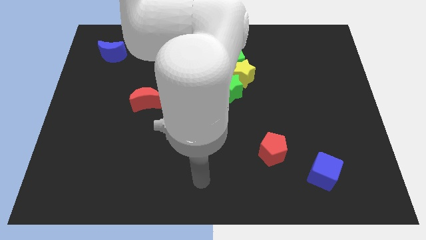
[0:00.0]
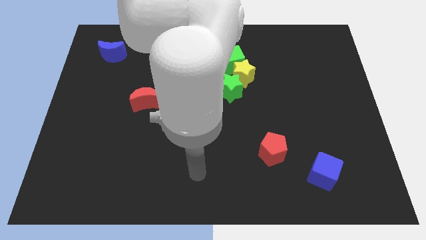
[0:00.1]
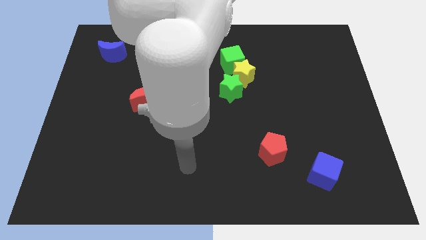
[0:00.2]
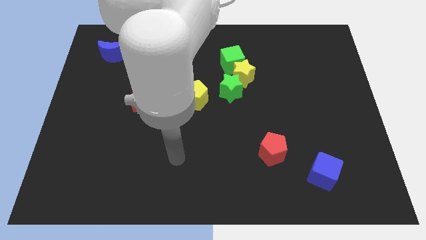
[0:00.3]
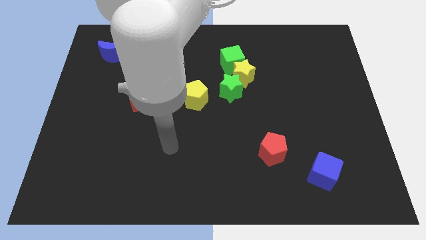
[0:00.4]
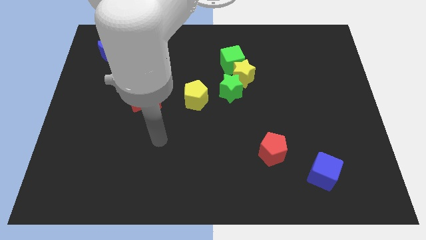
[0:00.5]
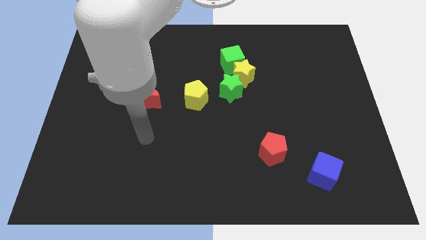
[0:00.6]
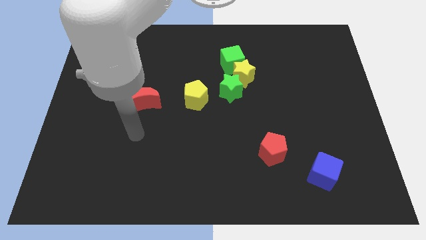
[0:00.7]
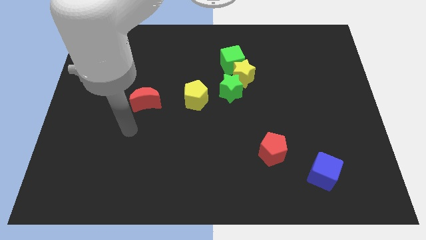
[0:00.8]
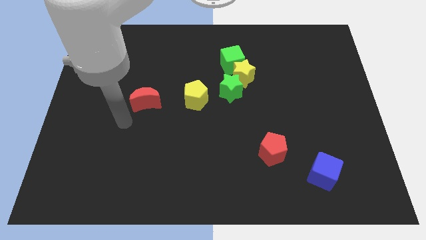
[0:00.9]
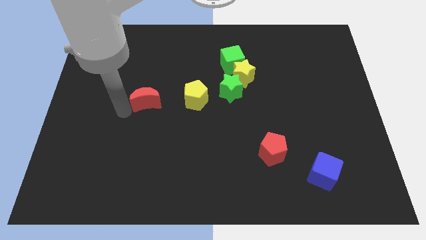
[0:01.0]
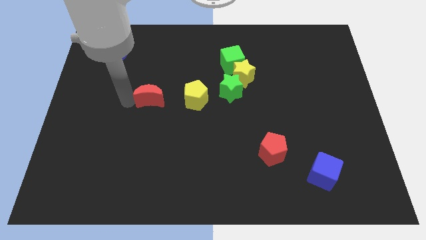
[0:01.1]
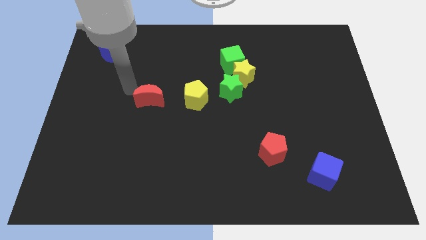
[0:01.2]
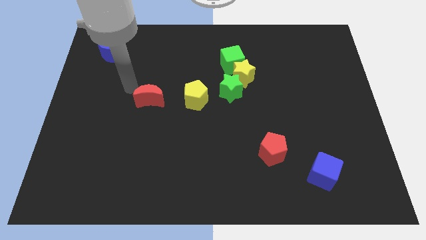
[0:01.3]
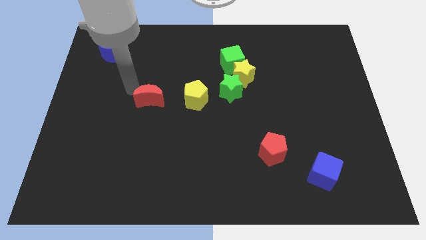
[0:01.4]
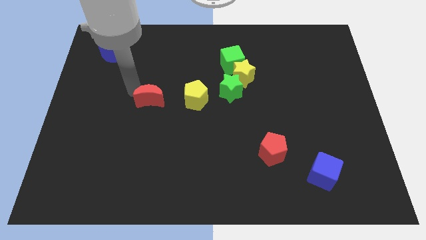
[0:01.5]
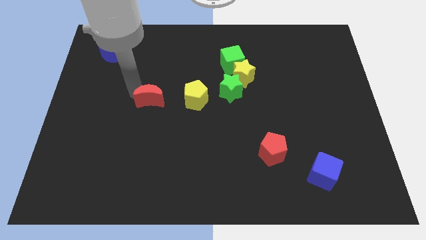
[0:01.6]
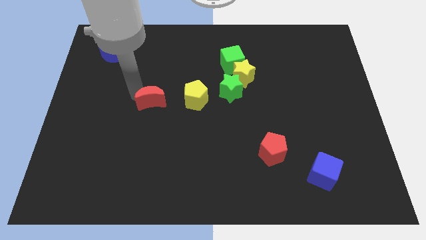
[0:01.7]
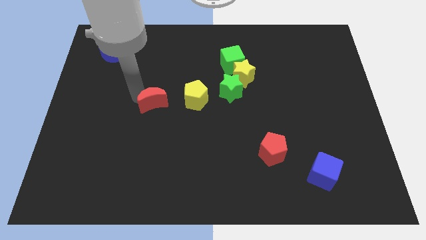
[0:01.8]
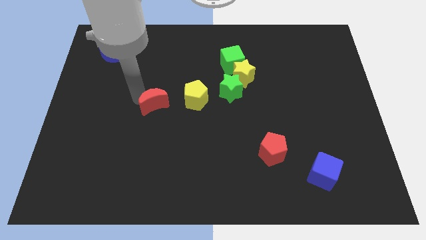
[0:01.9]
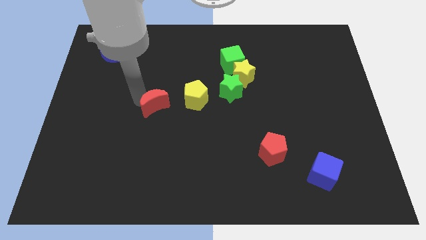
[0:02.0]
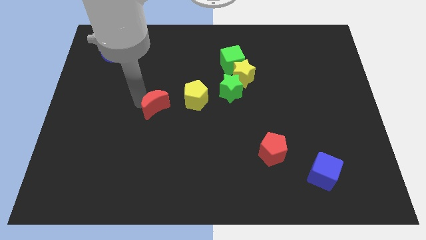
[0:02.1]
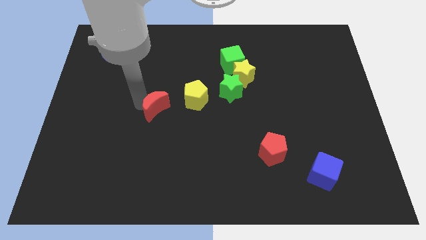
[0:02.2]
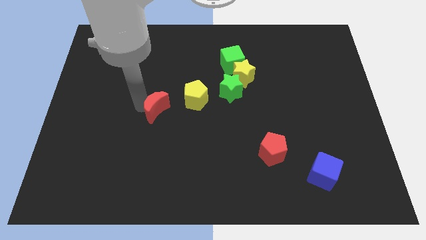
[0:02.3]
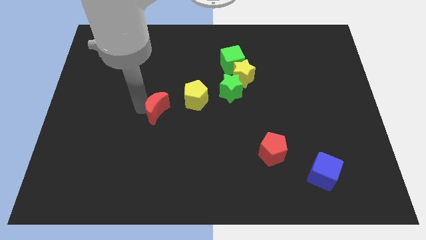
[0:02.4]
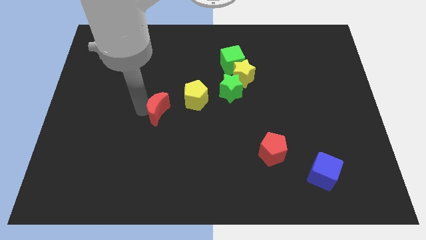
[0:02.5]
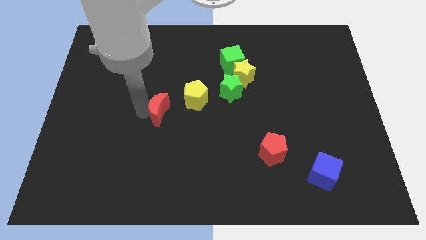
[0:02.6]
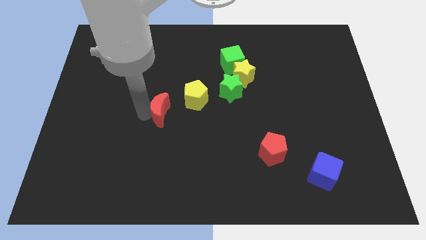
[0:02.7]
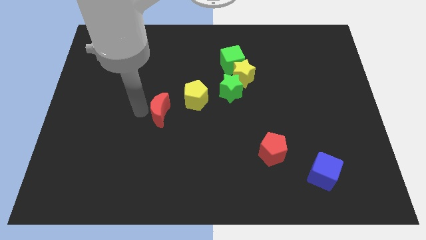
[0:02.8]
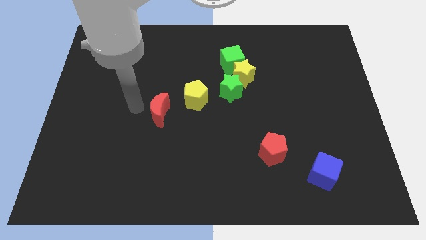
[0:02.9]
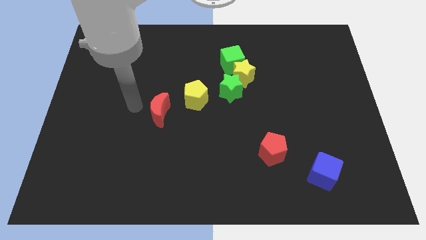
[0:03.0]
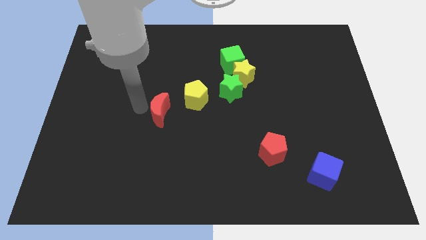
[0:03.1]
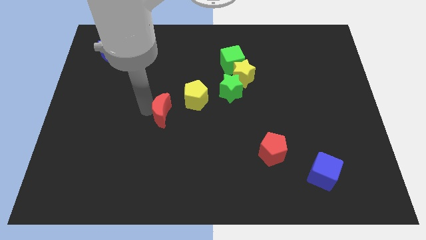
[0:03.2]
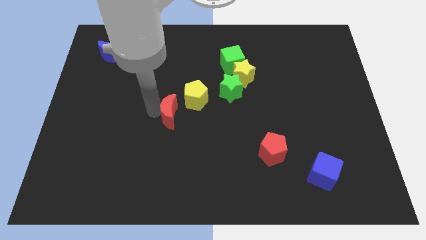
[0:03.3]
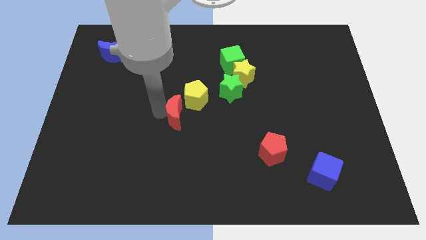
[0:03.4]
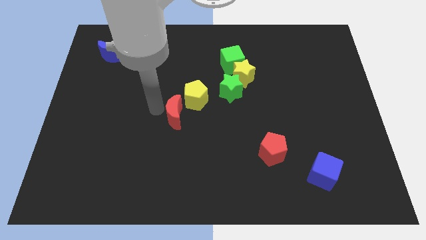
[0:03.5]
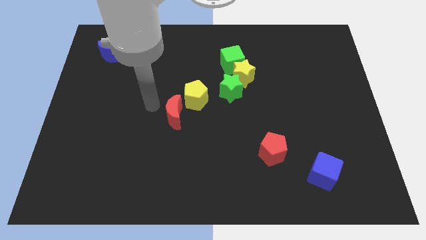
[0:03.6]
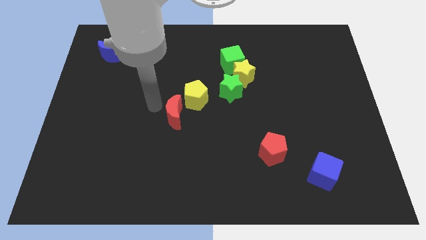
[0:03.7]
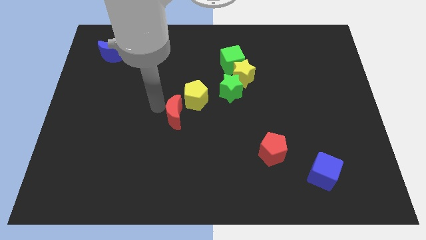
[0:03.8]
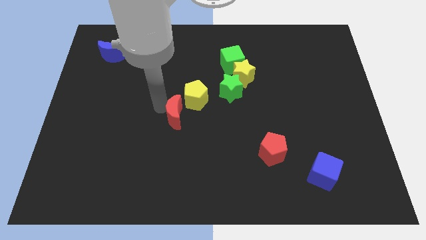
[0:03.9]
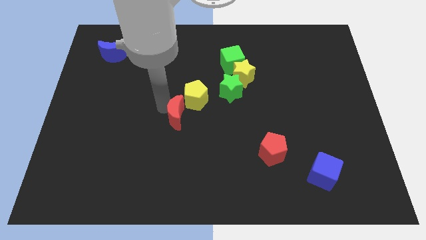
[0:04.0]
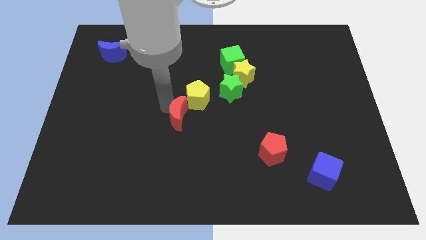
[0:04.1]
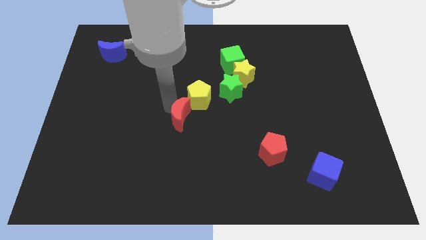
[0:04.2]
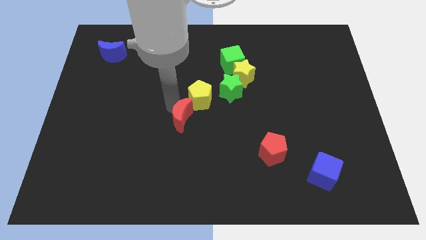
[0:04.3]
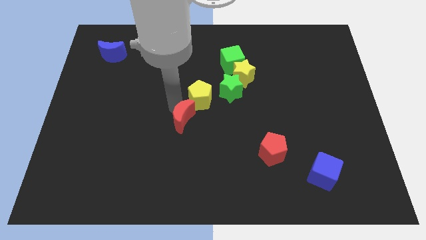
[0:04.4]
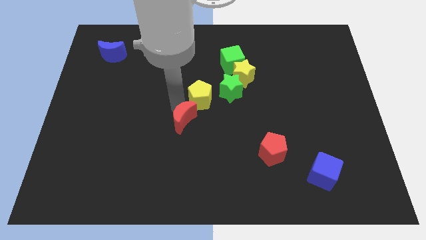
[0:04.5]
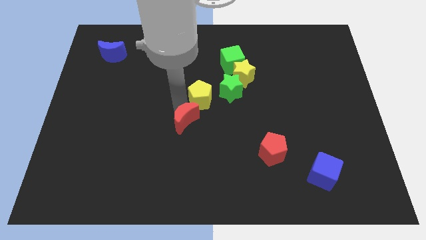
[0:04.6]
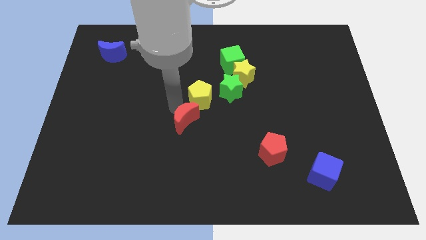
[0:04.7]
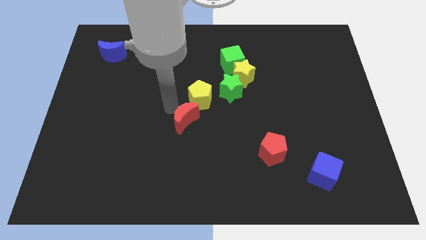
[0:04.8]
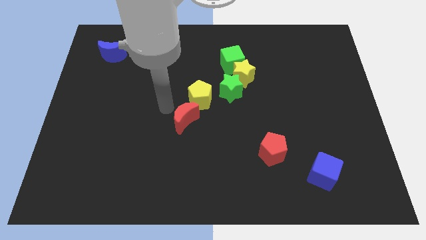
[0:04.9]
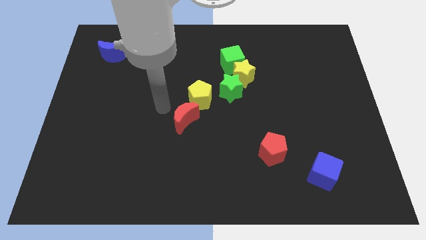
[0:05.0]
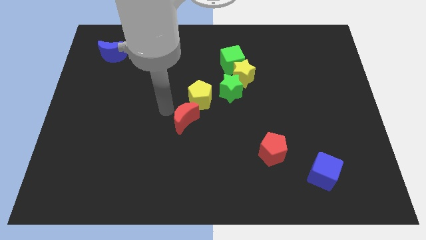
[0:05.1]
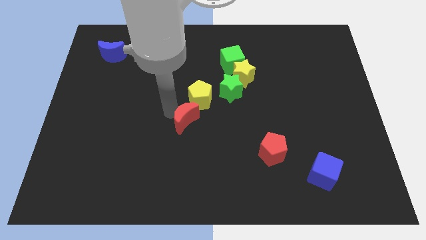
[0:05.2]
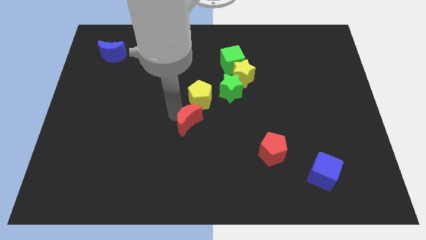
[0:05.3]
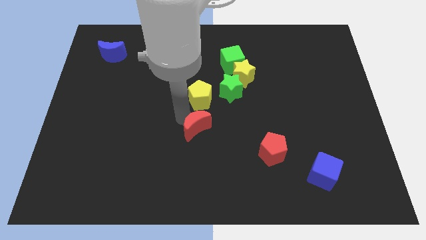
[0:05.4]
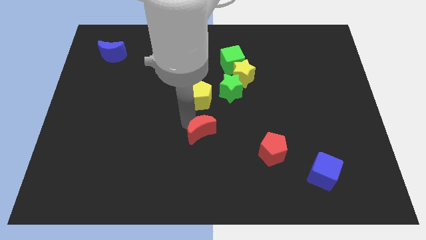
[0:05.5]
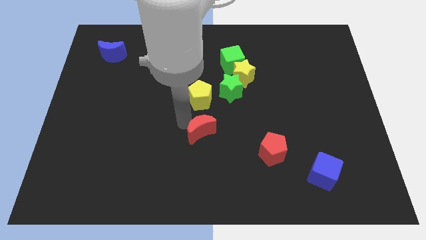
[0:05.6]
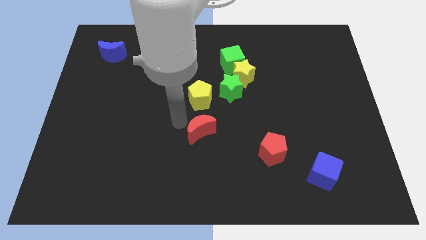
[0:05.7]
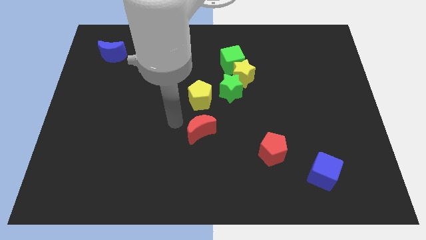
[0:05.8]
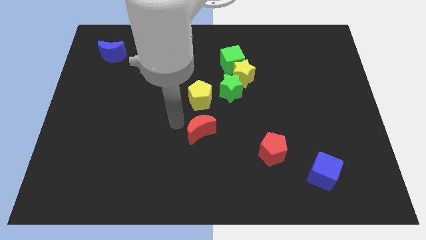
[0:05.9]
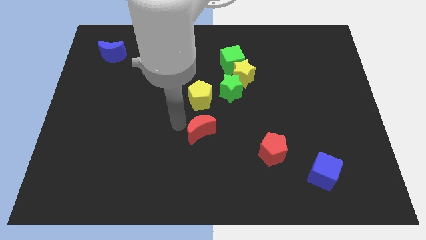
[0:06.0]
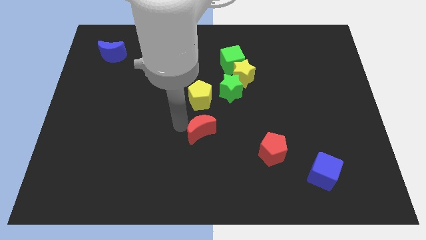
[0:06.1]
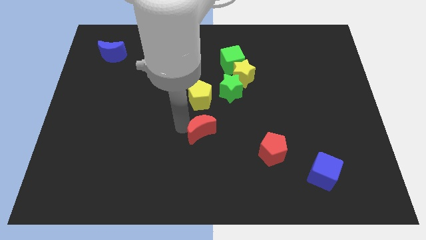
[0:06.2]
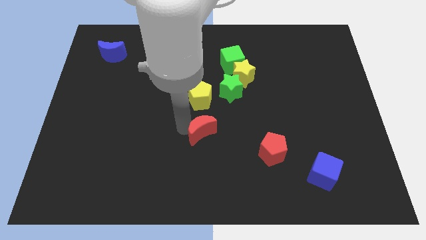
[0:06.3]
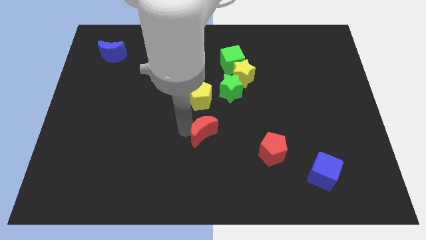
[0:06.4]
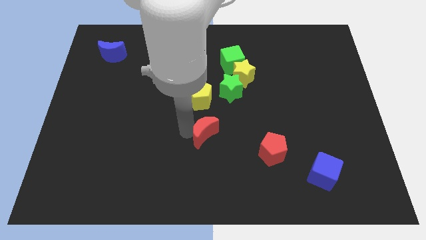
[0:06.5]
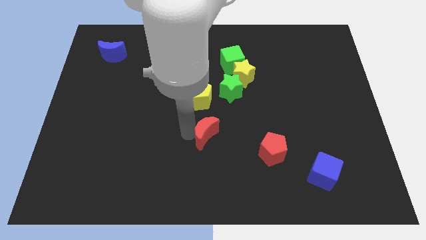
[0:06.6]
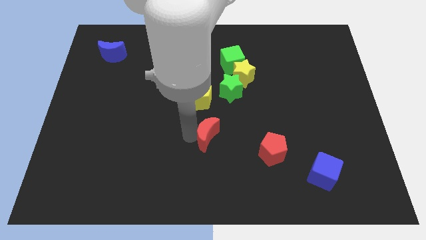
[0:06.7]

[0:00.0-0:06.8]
slide the red moon to the left of the red pentagon
